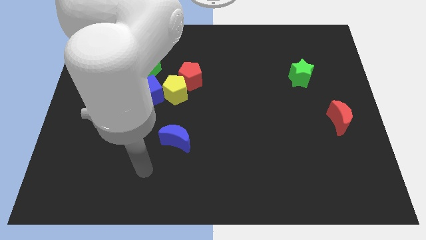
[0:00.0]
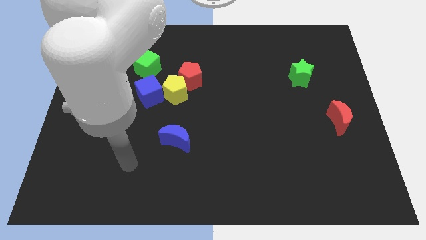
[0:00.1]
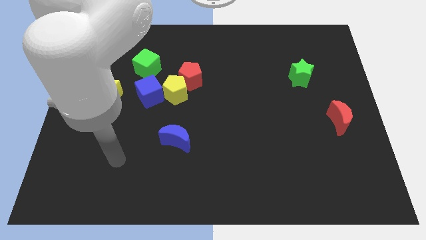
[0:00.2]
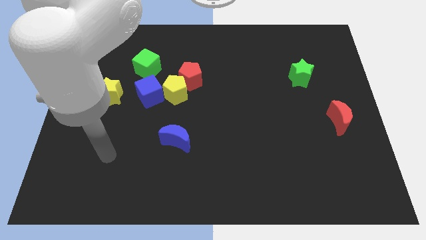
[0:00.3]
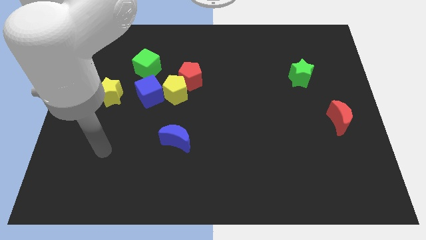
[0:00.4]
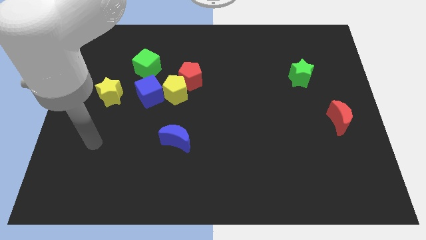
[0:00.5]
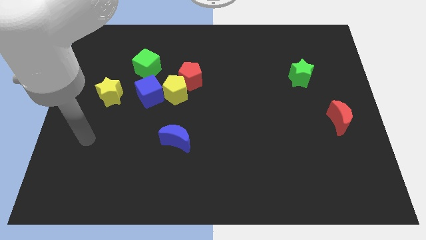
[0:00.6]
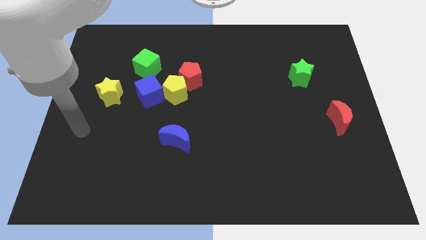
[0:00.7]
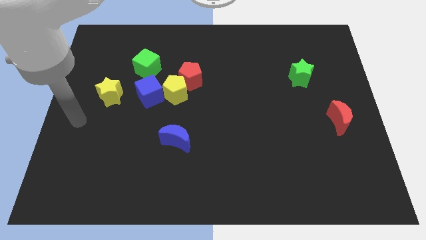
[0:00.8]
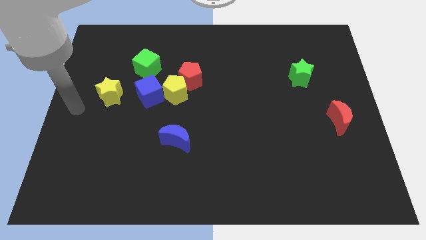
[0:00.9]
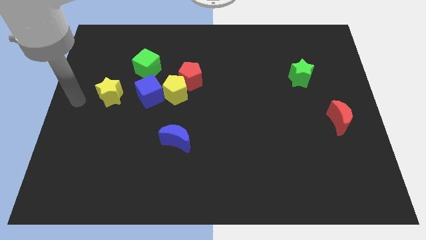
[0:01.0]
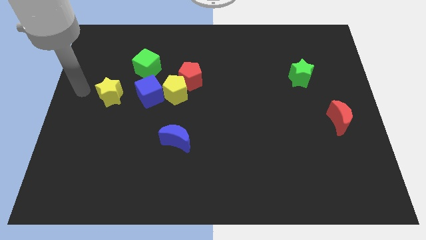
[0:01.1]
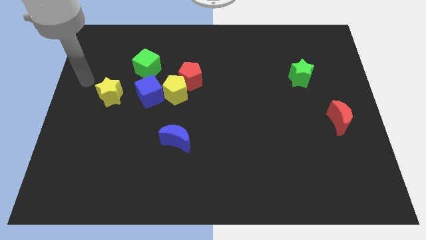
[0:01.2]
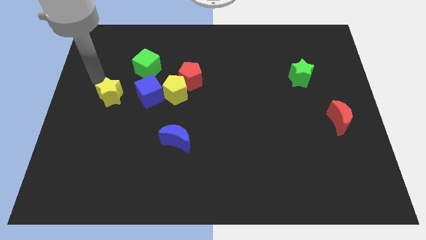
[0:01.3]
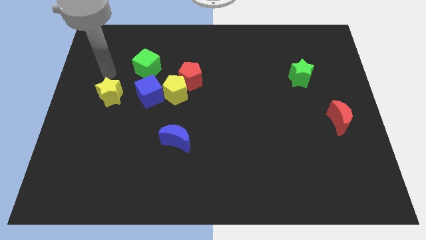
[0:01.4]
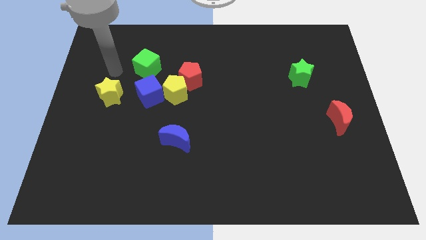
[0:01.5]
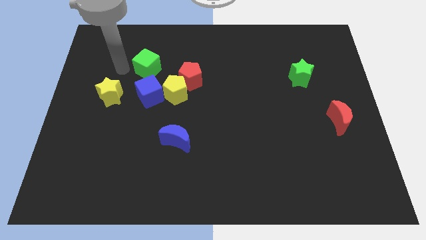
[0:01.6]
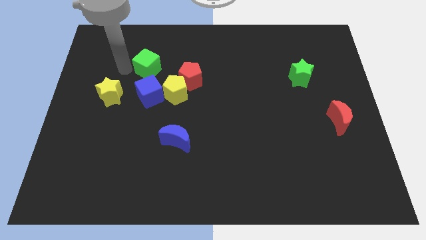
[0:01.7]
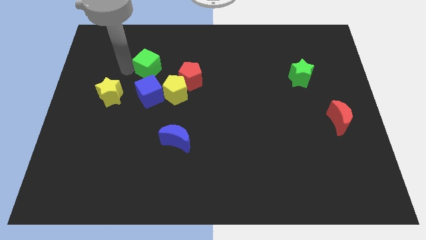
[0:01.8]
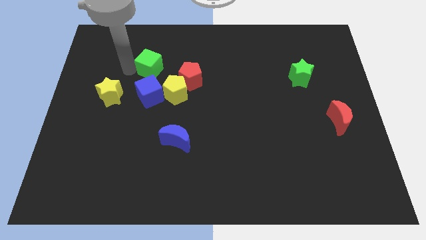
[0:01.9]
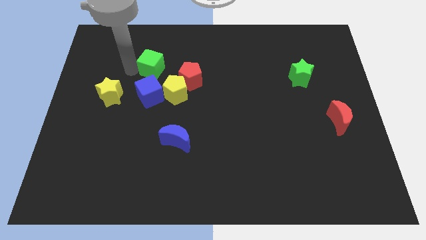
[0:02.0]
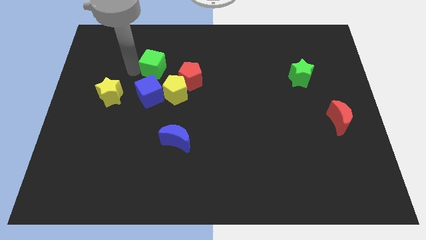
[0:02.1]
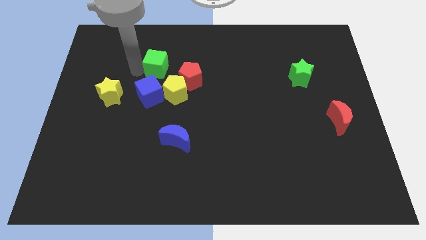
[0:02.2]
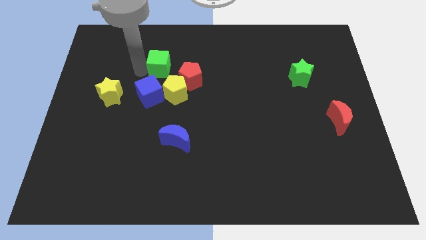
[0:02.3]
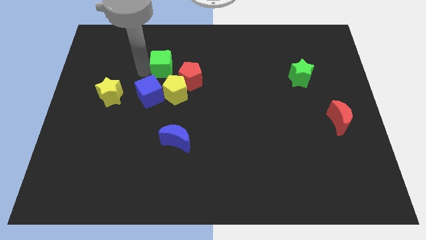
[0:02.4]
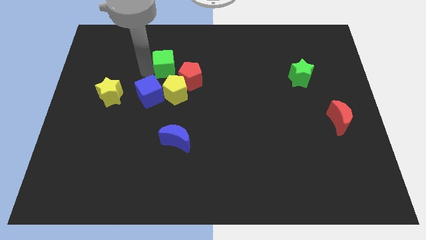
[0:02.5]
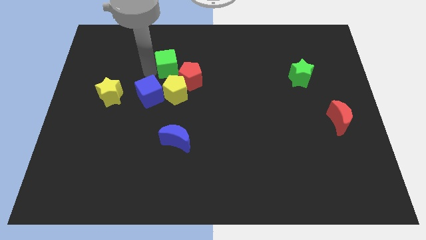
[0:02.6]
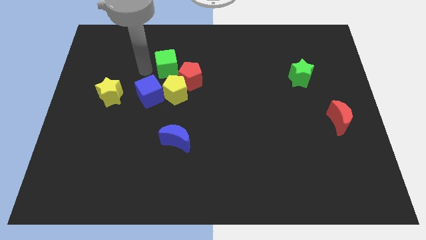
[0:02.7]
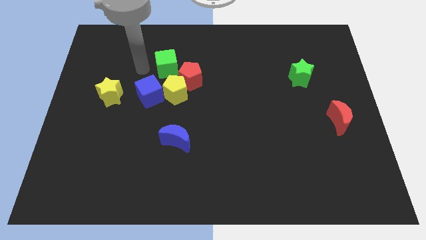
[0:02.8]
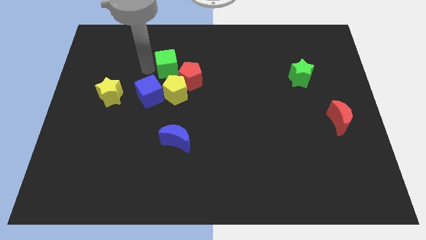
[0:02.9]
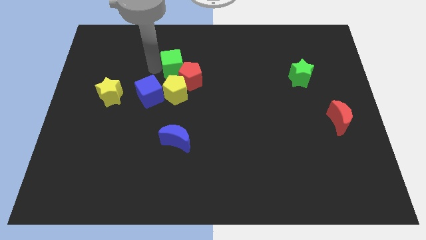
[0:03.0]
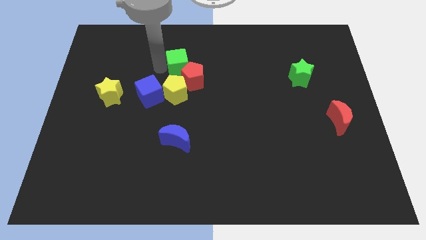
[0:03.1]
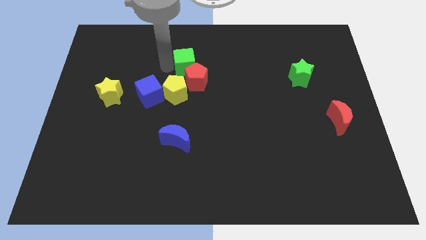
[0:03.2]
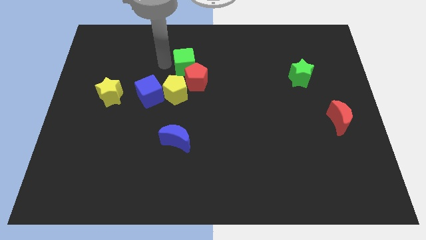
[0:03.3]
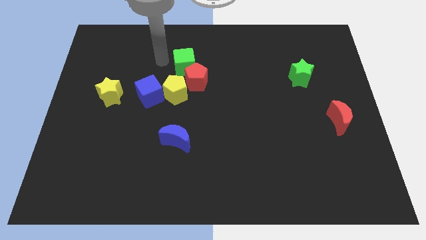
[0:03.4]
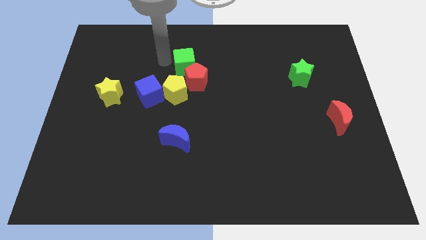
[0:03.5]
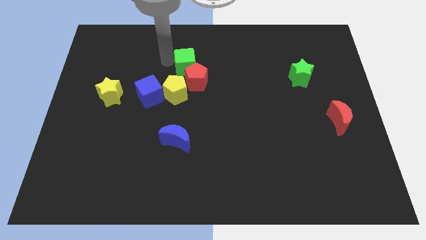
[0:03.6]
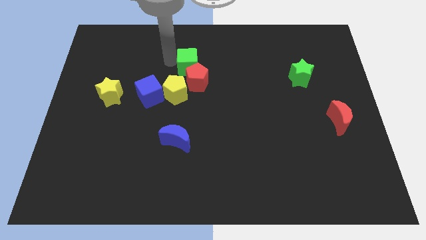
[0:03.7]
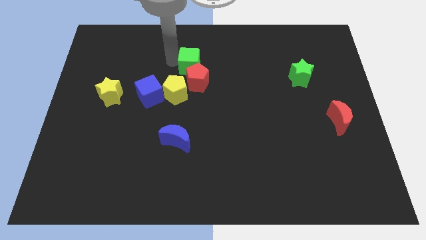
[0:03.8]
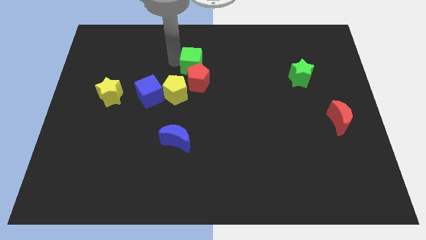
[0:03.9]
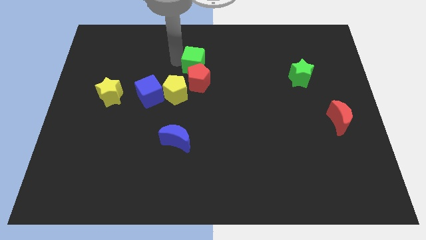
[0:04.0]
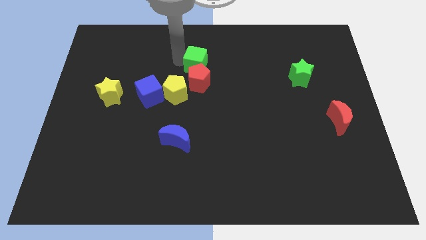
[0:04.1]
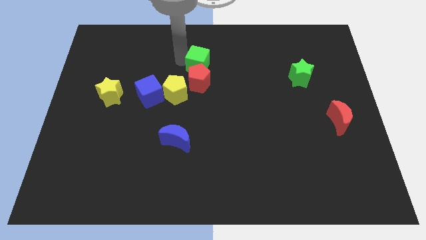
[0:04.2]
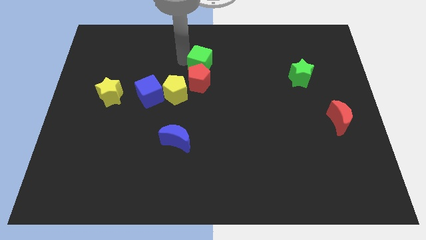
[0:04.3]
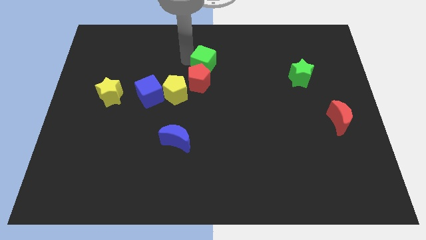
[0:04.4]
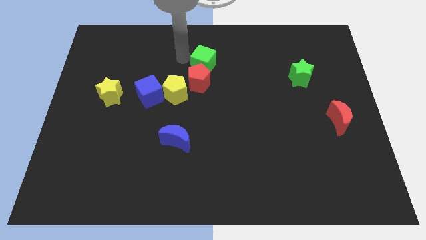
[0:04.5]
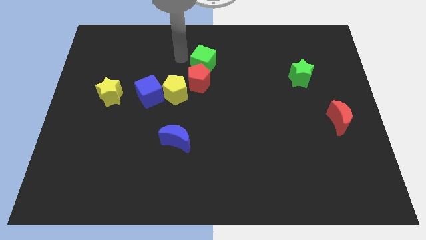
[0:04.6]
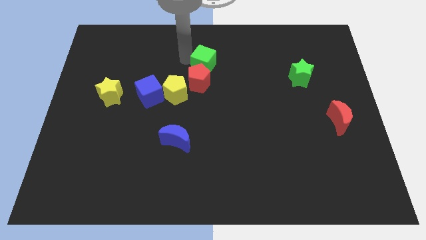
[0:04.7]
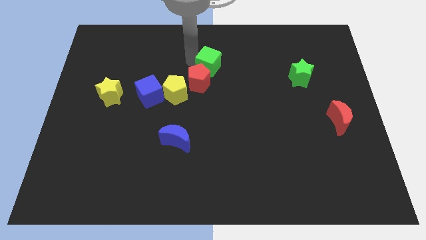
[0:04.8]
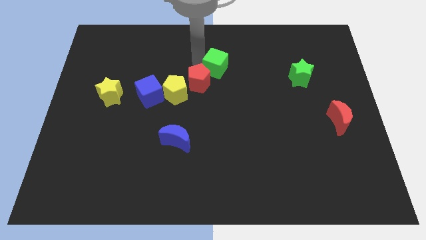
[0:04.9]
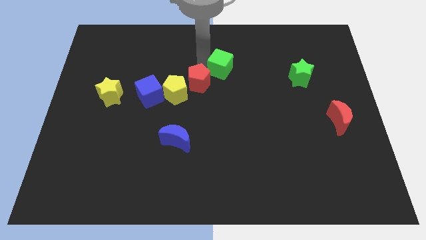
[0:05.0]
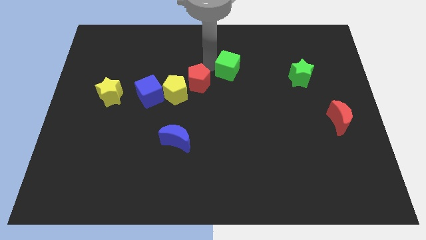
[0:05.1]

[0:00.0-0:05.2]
slide the green cube right

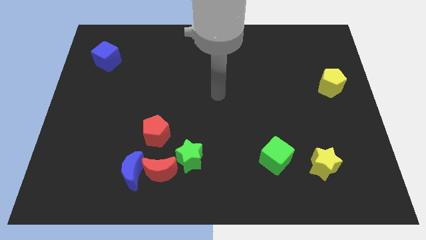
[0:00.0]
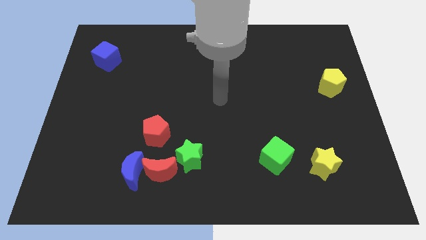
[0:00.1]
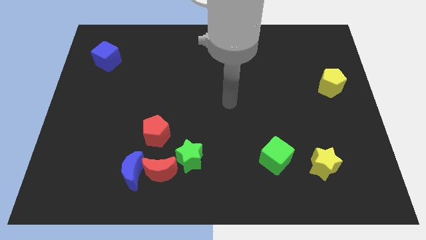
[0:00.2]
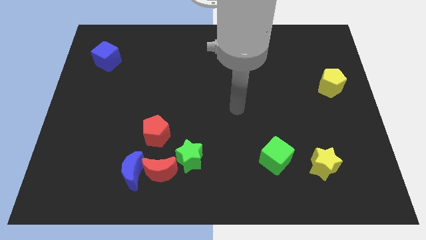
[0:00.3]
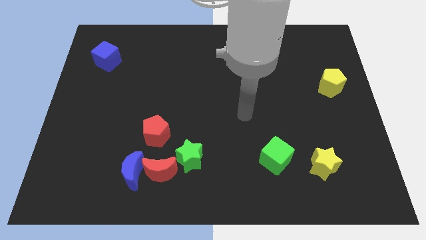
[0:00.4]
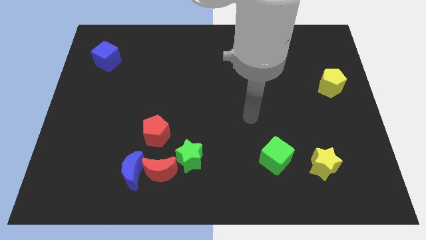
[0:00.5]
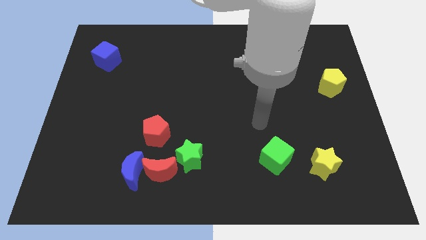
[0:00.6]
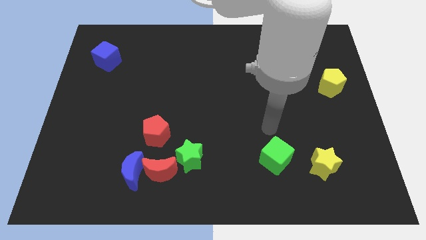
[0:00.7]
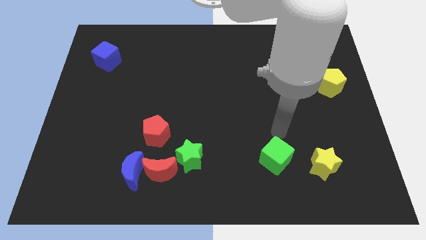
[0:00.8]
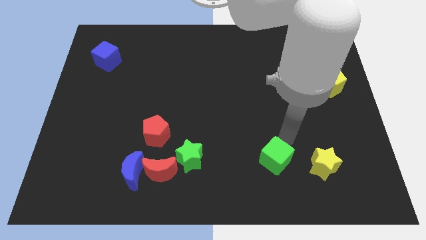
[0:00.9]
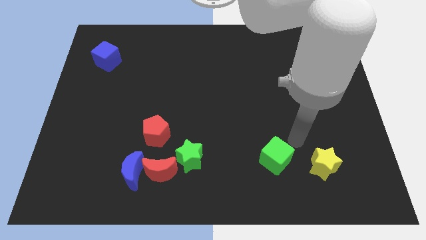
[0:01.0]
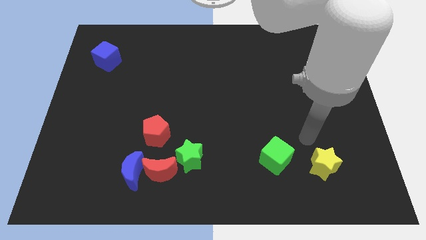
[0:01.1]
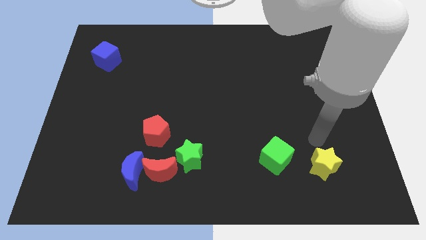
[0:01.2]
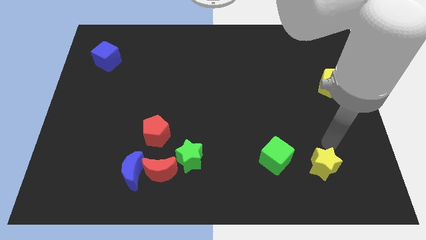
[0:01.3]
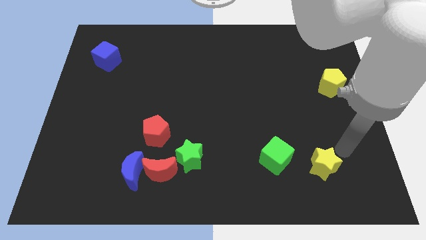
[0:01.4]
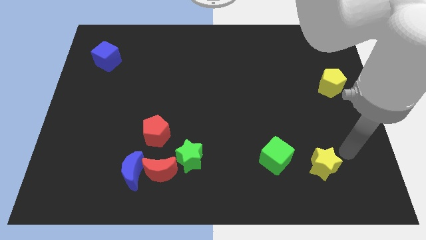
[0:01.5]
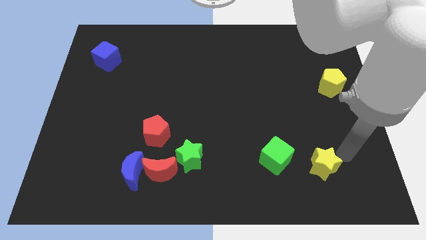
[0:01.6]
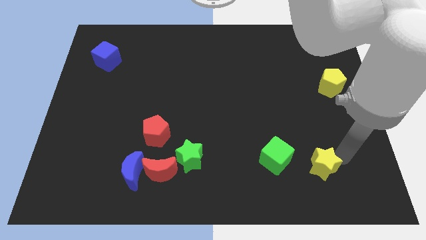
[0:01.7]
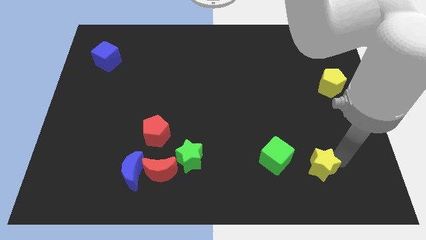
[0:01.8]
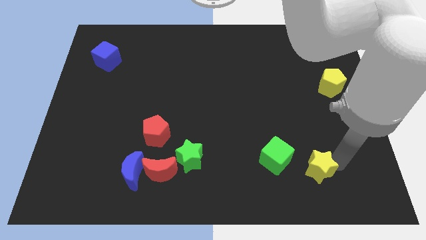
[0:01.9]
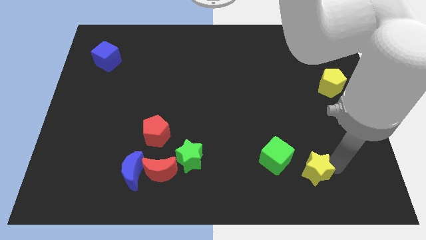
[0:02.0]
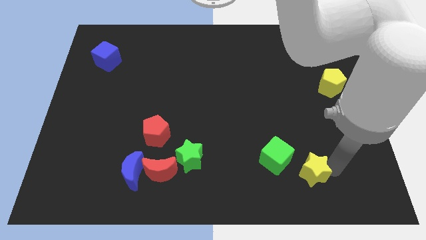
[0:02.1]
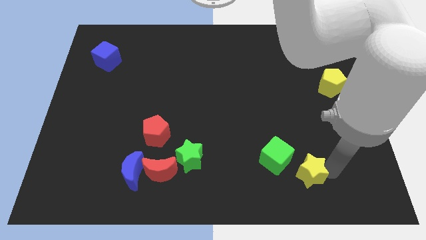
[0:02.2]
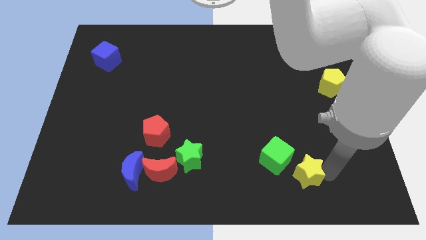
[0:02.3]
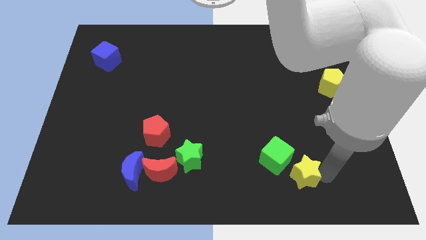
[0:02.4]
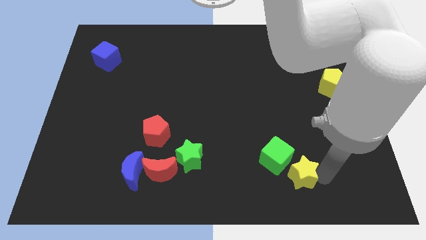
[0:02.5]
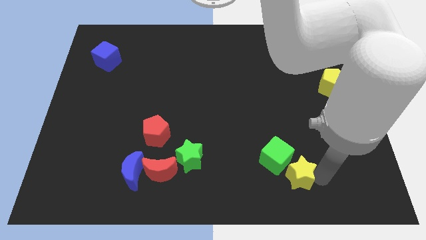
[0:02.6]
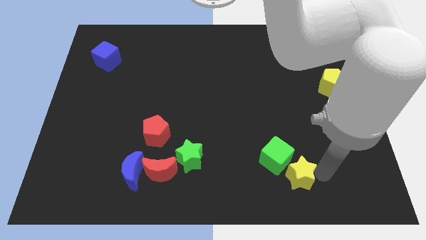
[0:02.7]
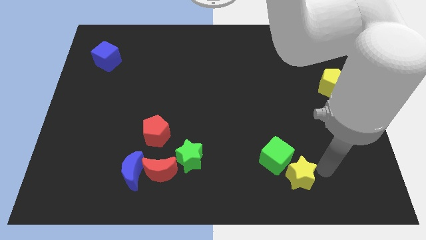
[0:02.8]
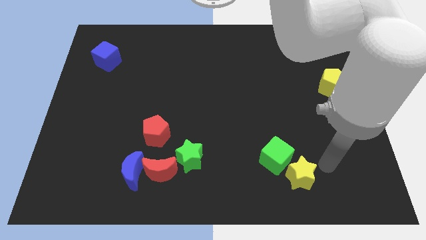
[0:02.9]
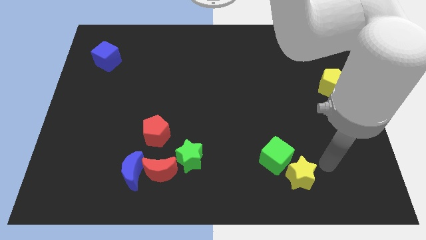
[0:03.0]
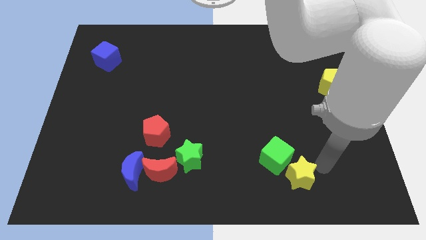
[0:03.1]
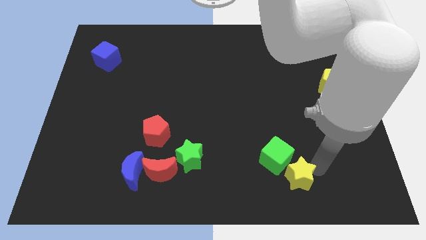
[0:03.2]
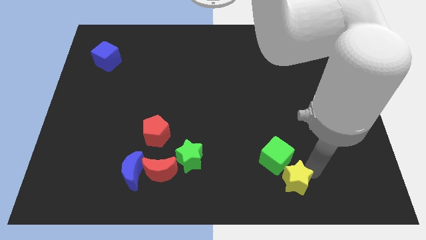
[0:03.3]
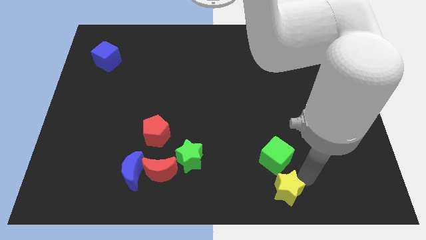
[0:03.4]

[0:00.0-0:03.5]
slightly push the yellow star to the left
